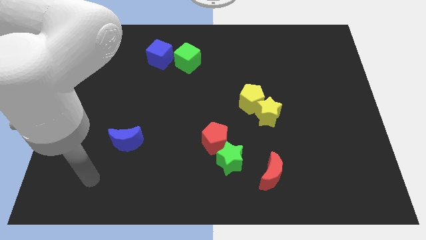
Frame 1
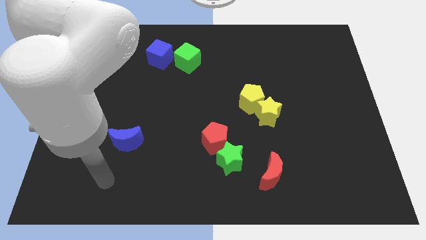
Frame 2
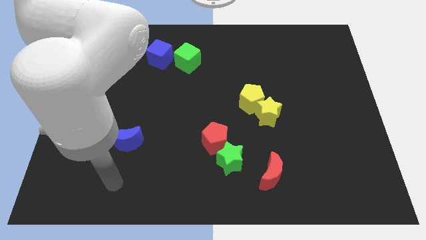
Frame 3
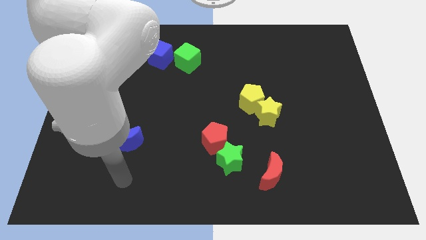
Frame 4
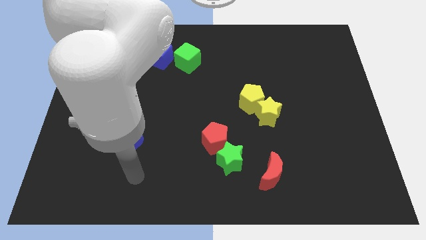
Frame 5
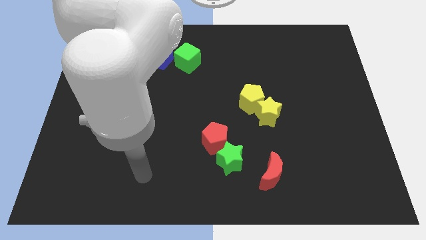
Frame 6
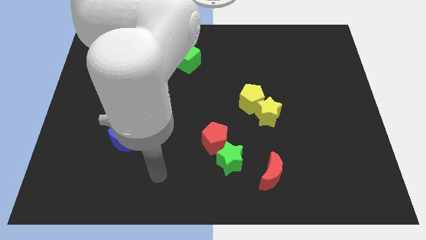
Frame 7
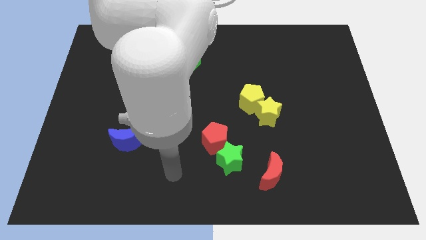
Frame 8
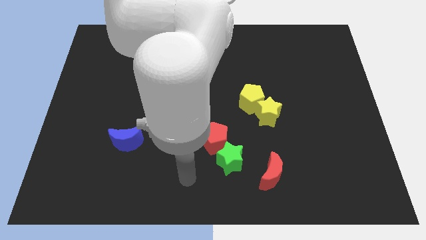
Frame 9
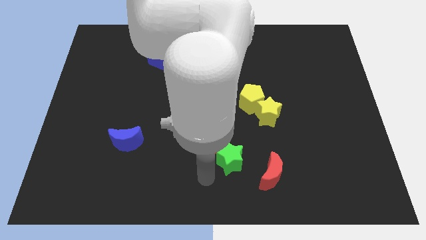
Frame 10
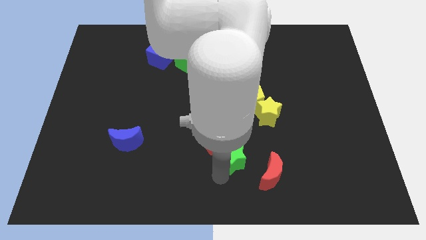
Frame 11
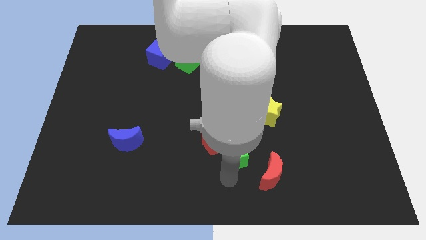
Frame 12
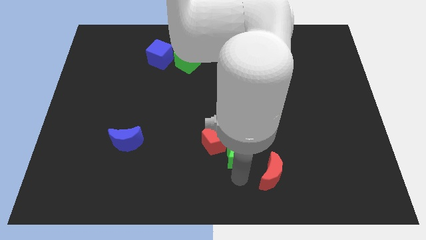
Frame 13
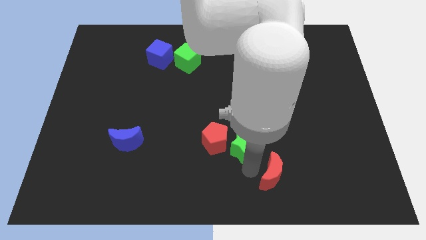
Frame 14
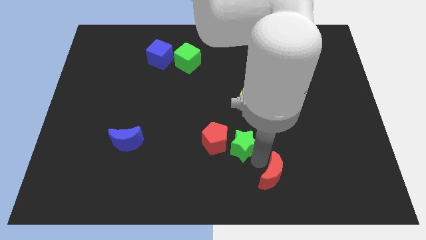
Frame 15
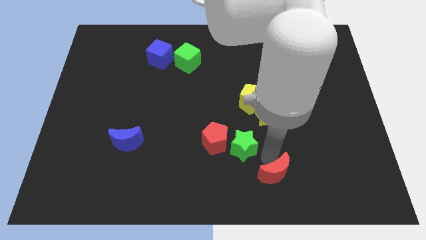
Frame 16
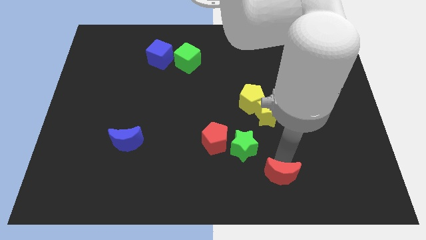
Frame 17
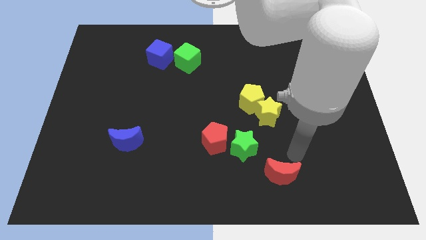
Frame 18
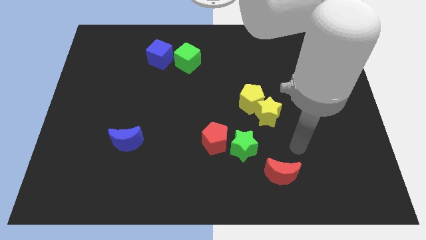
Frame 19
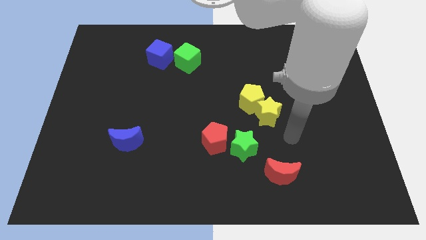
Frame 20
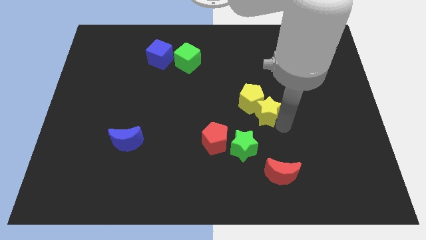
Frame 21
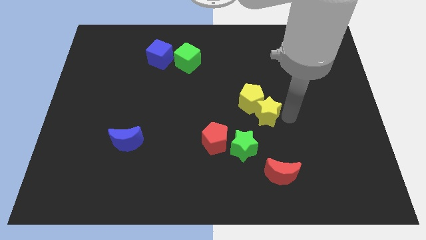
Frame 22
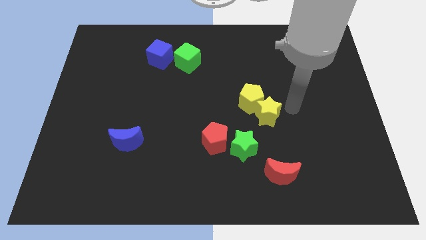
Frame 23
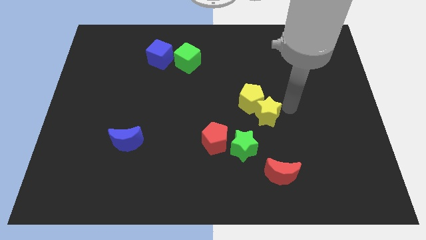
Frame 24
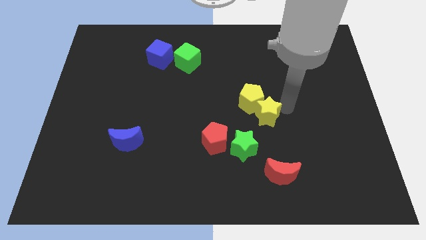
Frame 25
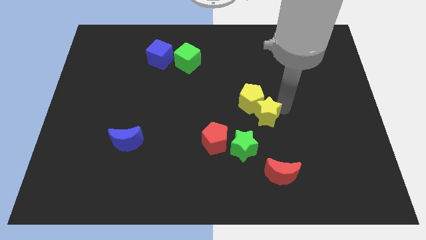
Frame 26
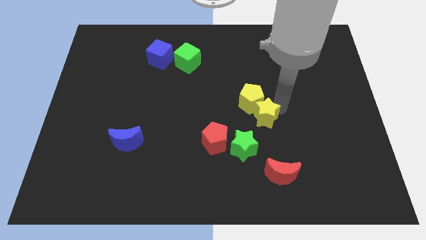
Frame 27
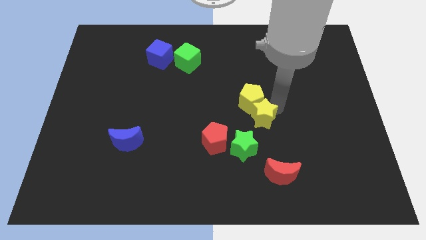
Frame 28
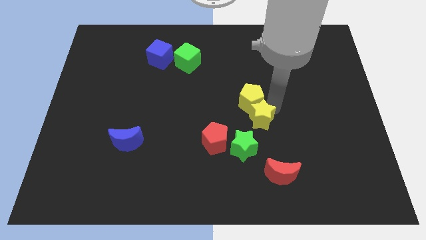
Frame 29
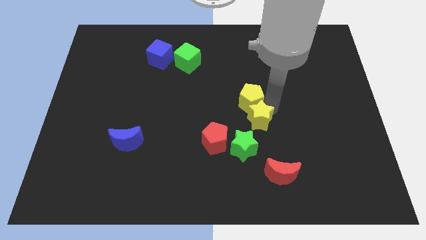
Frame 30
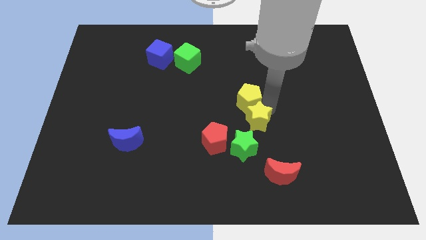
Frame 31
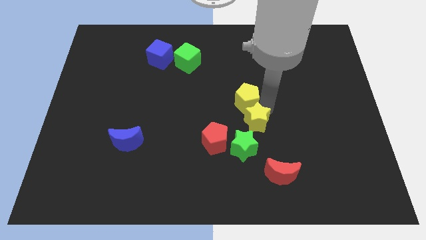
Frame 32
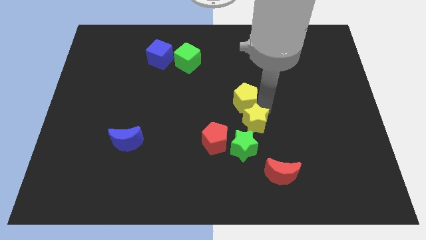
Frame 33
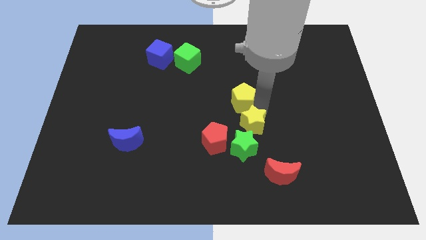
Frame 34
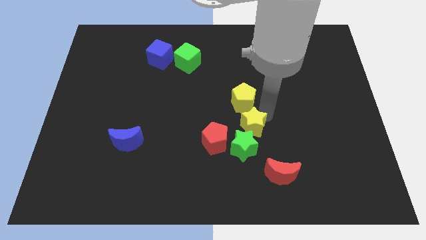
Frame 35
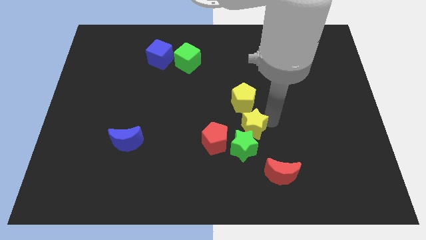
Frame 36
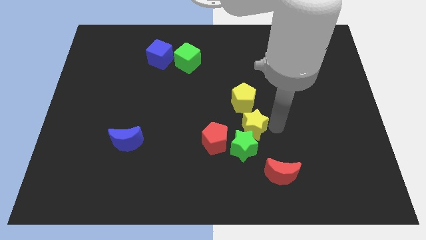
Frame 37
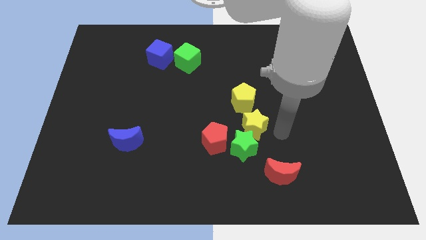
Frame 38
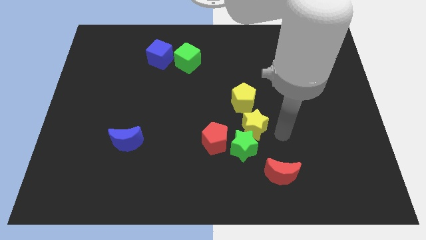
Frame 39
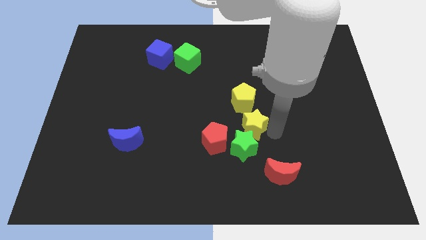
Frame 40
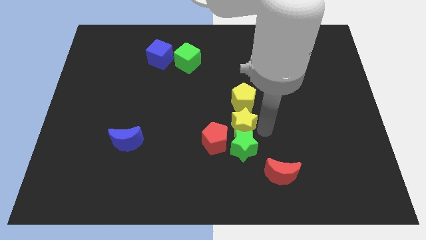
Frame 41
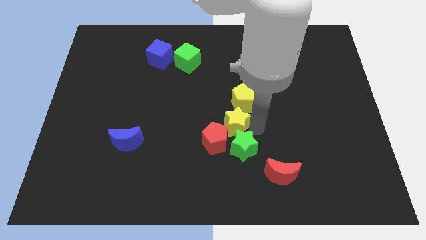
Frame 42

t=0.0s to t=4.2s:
slightly push the yellow star left

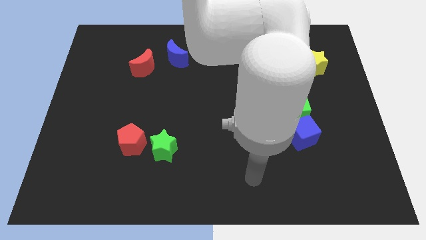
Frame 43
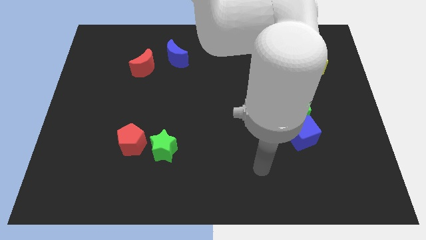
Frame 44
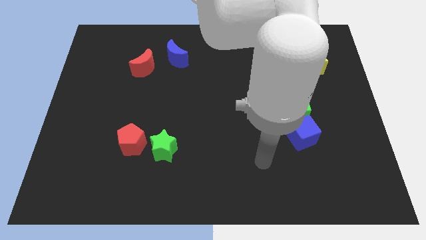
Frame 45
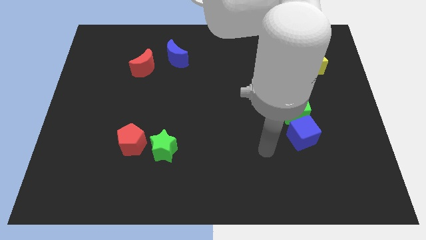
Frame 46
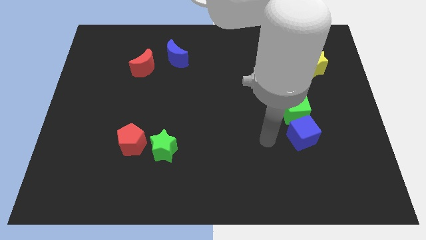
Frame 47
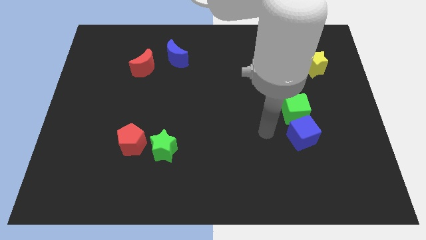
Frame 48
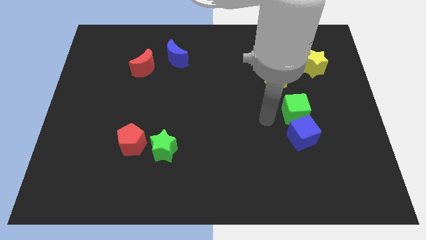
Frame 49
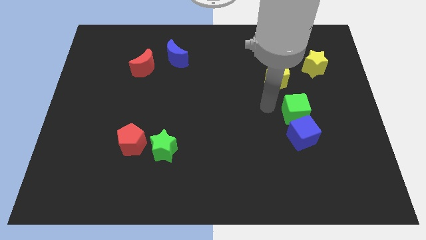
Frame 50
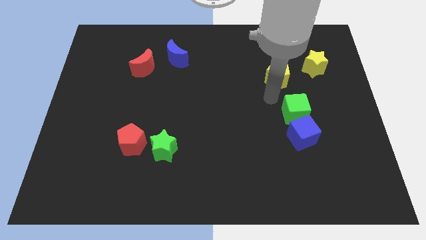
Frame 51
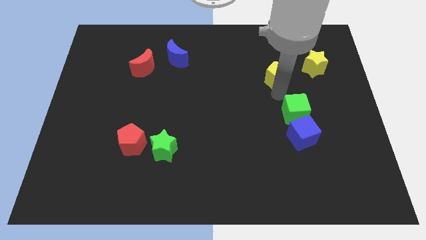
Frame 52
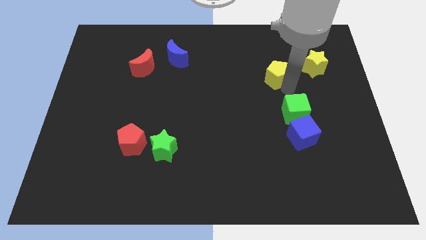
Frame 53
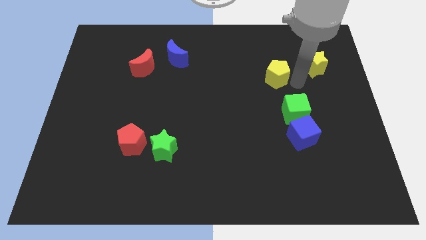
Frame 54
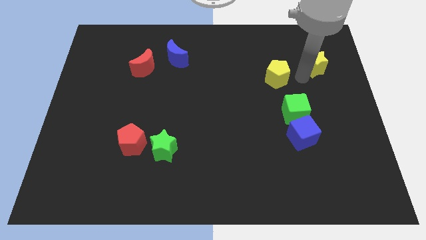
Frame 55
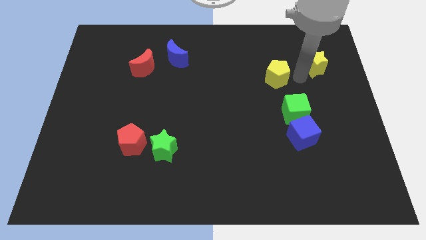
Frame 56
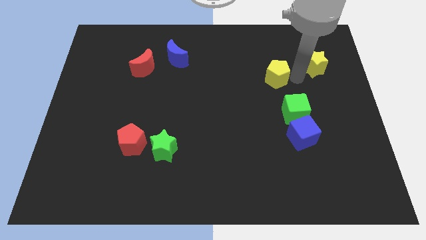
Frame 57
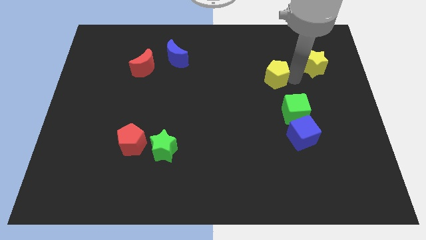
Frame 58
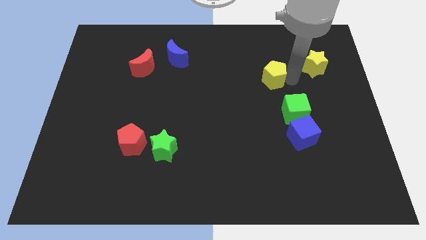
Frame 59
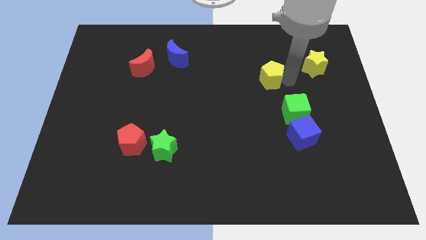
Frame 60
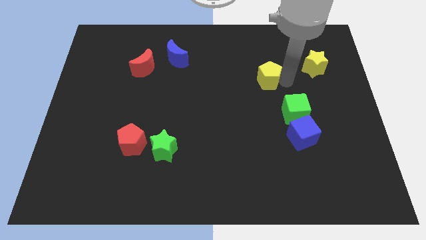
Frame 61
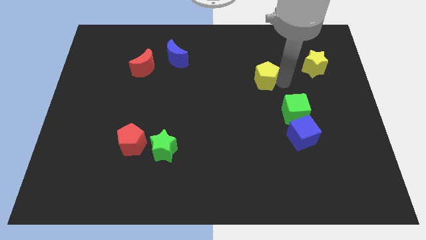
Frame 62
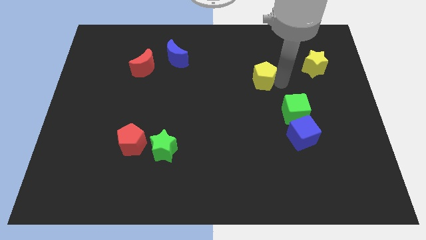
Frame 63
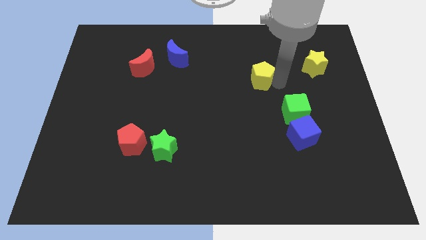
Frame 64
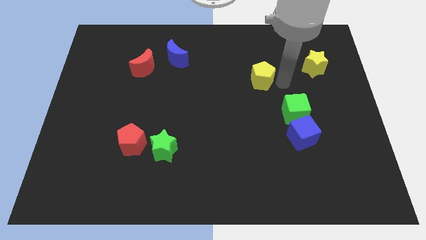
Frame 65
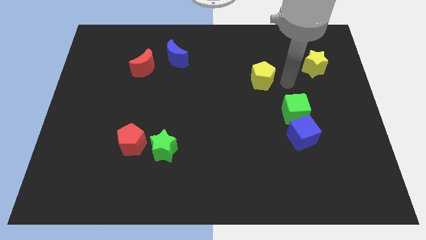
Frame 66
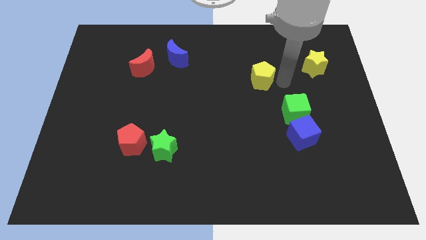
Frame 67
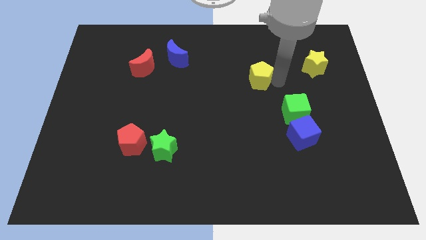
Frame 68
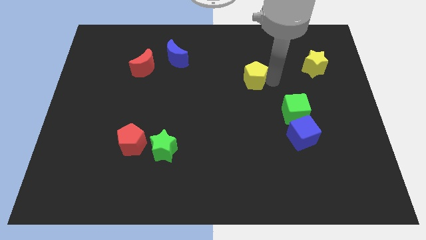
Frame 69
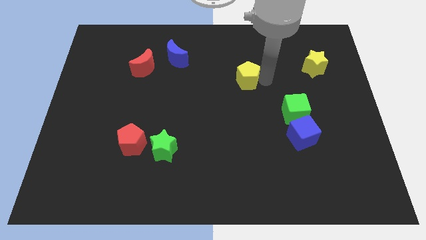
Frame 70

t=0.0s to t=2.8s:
push the yellow pentagon slightly to the left

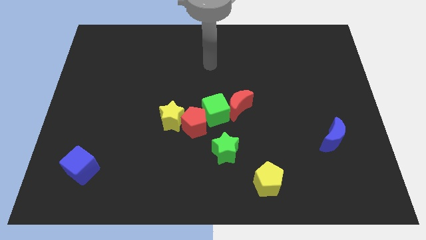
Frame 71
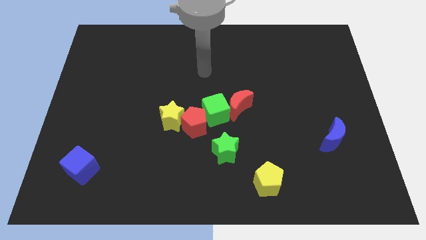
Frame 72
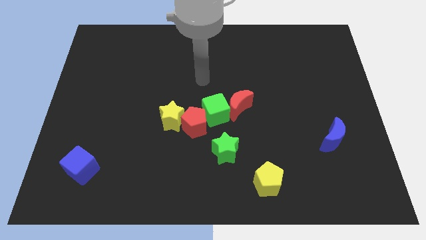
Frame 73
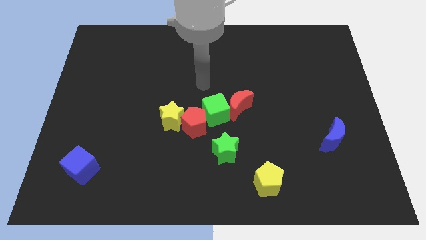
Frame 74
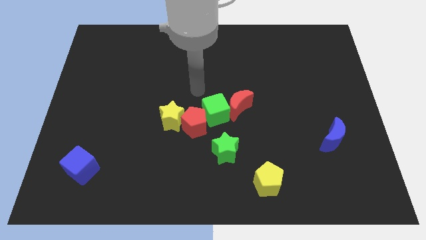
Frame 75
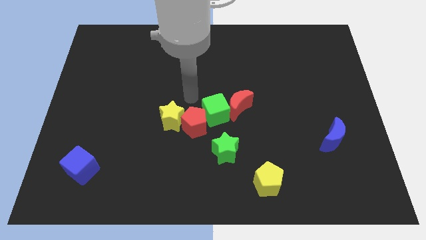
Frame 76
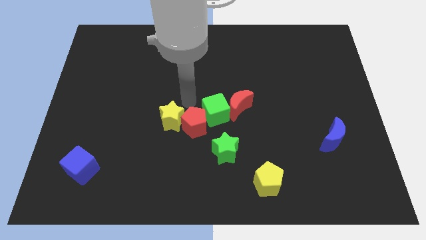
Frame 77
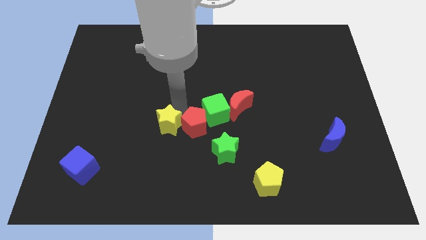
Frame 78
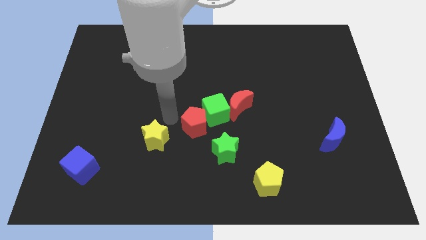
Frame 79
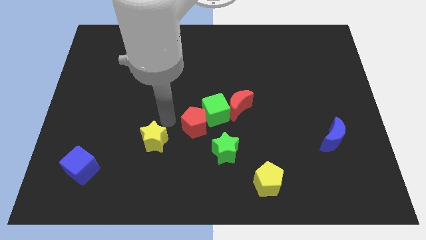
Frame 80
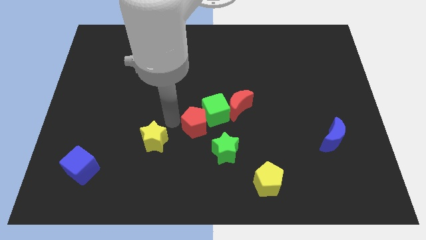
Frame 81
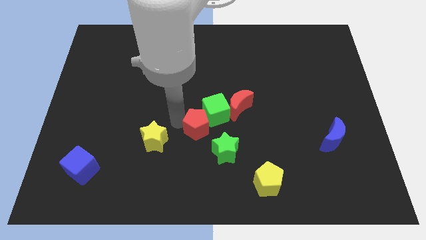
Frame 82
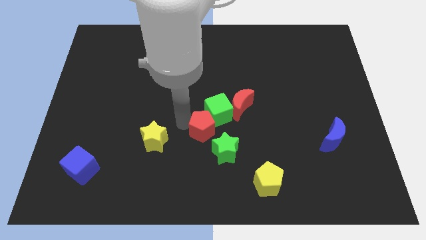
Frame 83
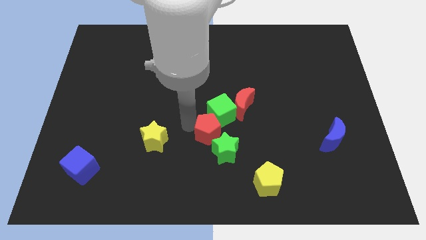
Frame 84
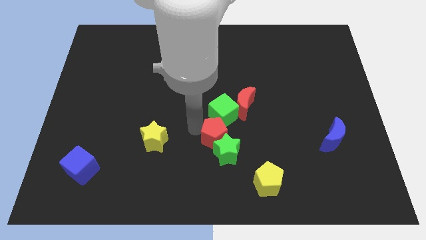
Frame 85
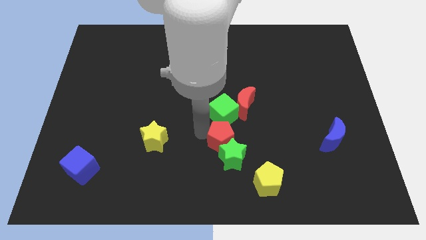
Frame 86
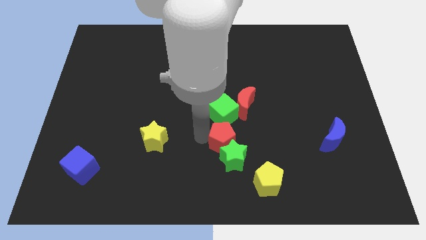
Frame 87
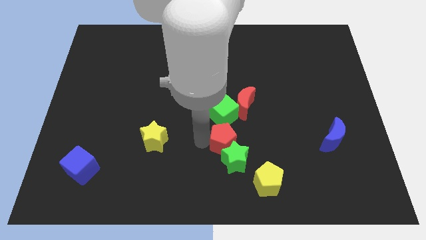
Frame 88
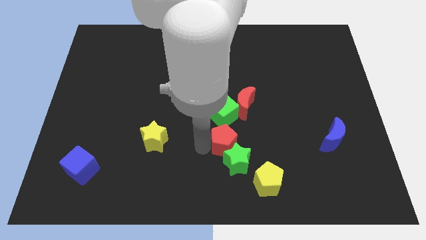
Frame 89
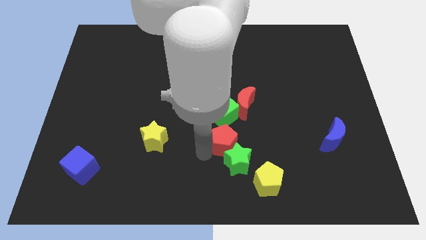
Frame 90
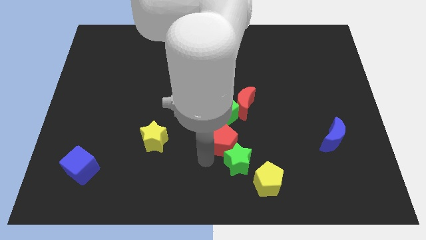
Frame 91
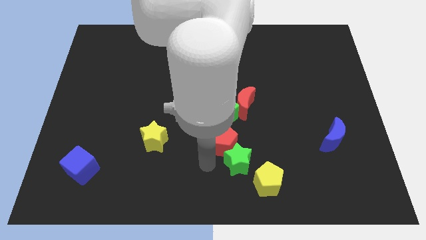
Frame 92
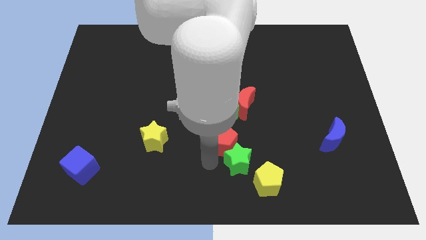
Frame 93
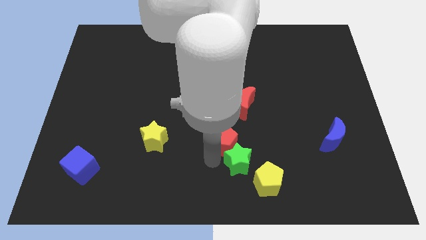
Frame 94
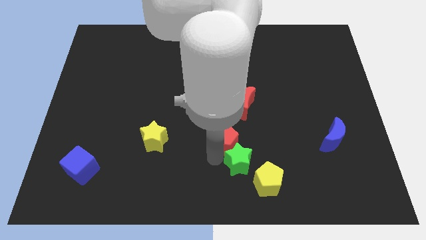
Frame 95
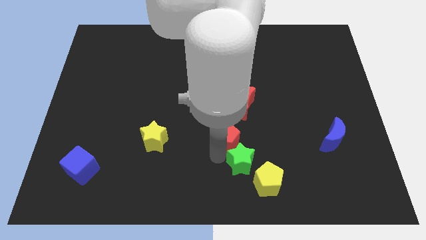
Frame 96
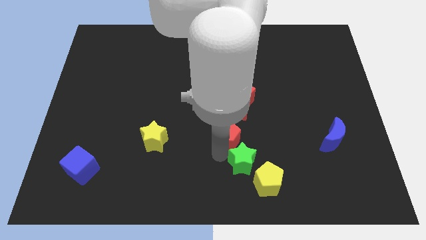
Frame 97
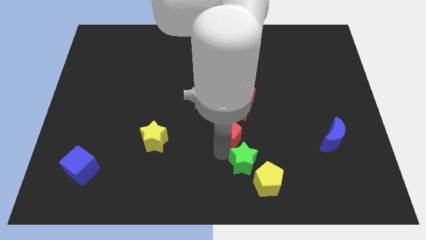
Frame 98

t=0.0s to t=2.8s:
slide the red pentagon somewhat to the right
